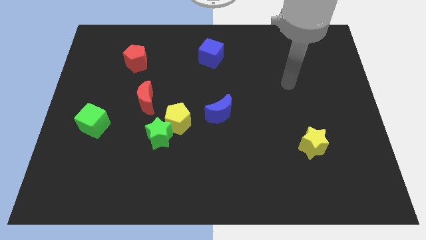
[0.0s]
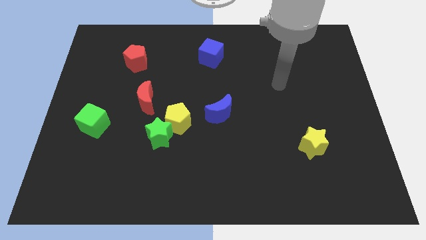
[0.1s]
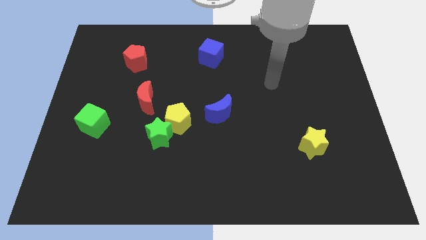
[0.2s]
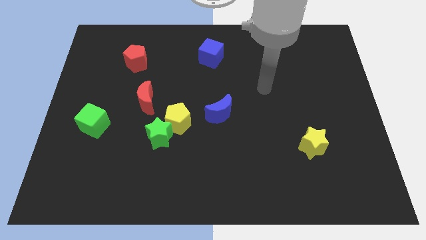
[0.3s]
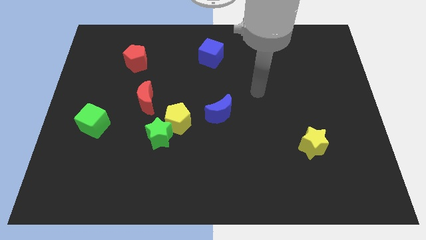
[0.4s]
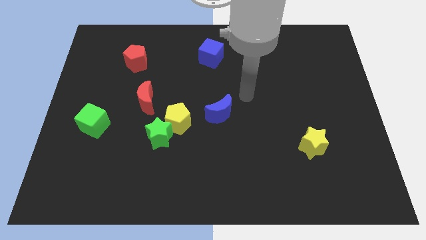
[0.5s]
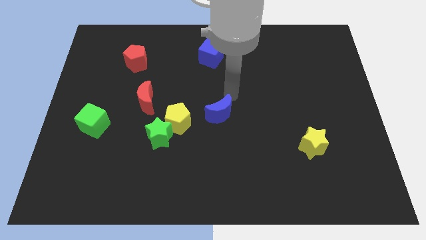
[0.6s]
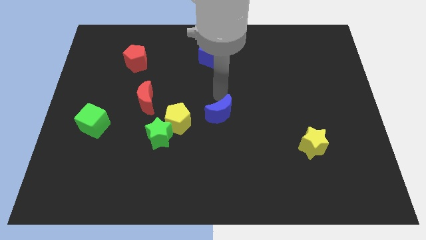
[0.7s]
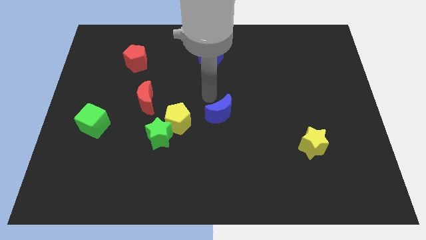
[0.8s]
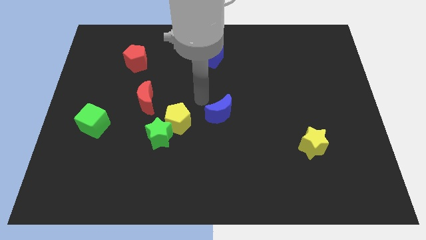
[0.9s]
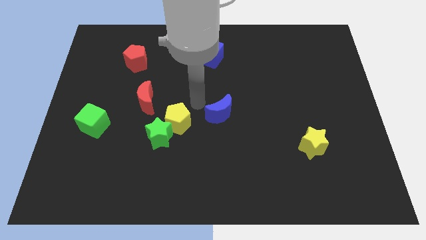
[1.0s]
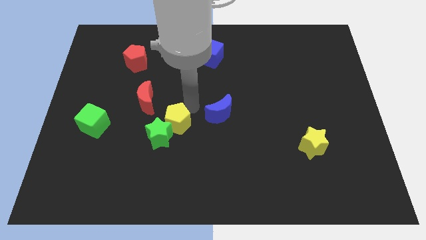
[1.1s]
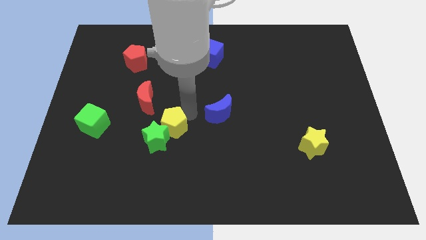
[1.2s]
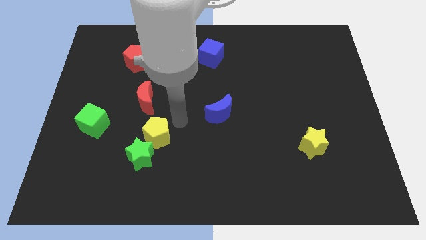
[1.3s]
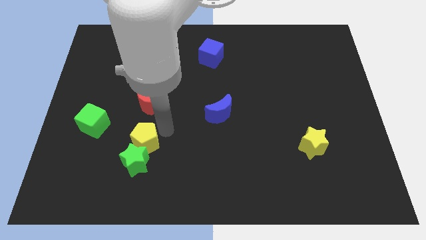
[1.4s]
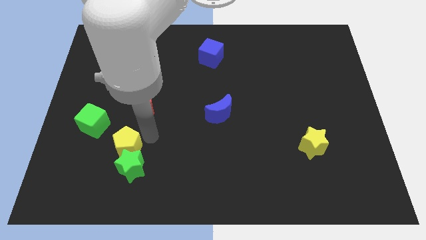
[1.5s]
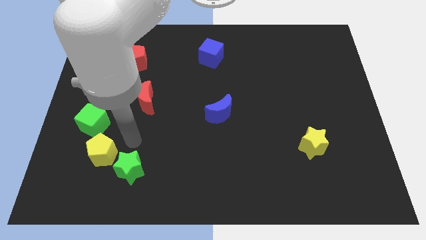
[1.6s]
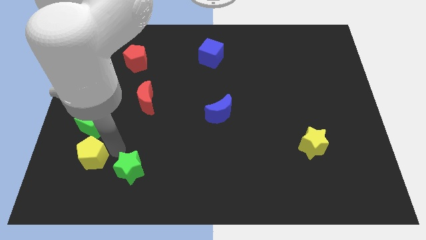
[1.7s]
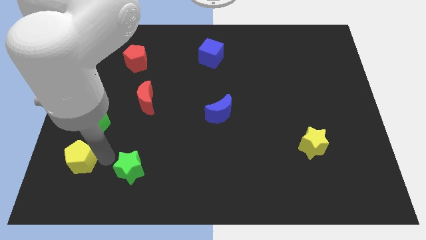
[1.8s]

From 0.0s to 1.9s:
move the green star away from the yellow pentagon

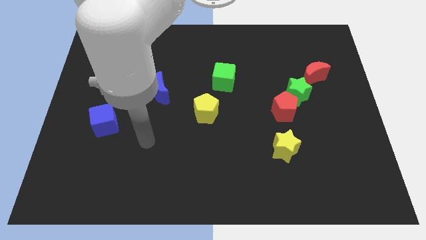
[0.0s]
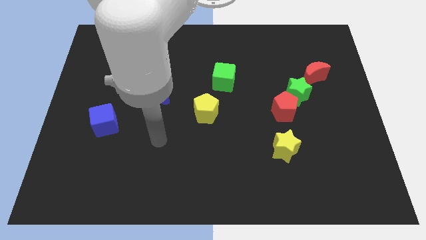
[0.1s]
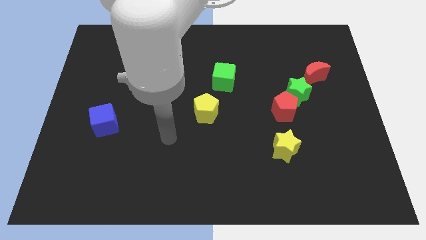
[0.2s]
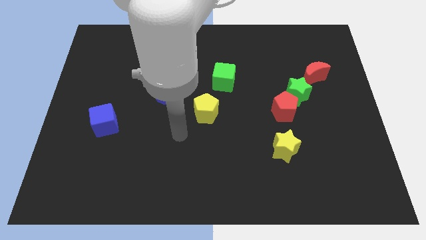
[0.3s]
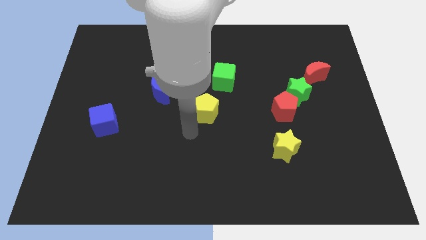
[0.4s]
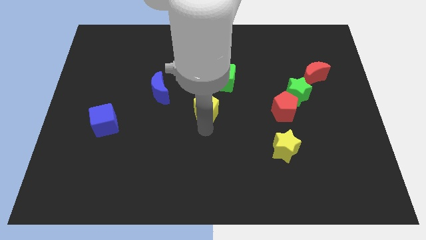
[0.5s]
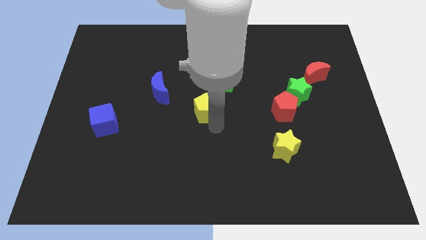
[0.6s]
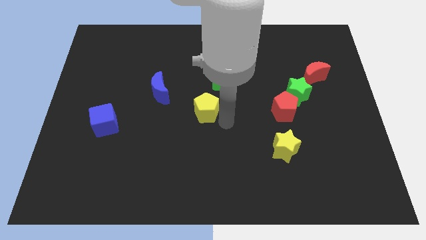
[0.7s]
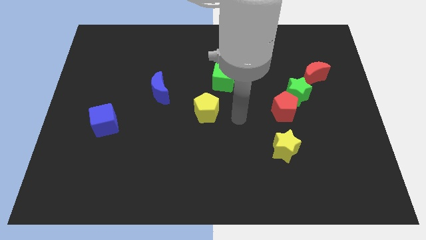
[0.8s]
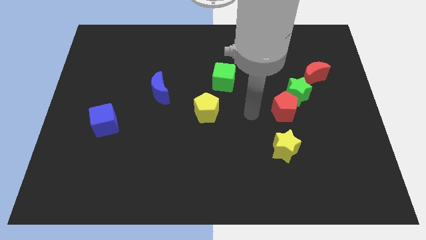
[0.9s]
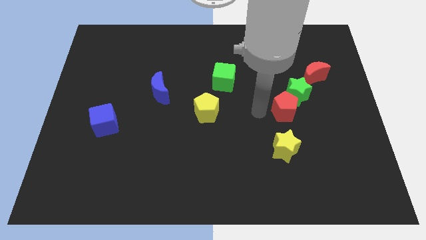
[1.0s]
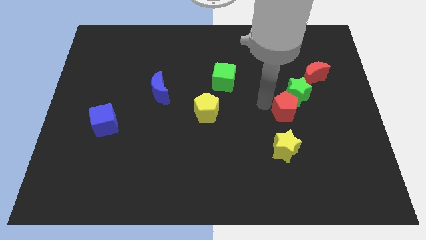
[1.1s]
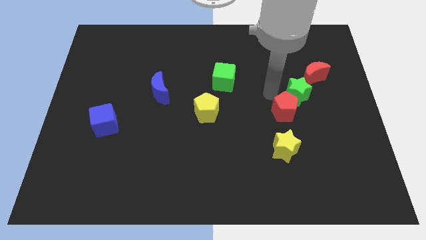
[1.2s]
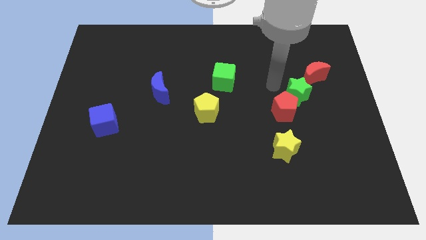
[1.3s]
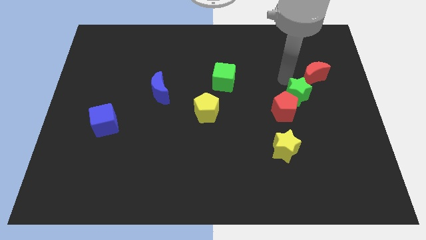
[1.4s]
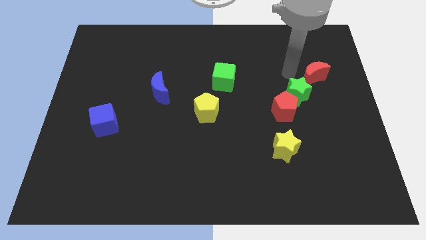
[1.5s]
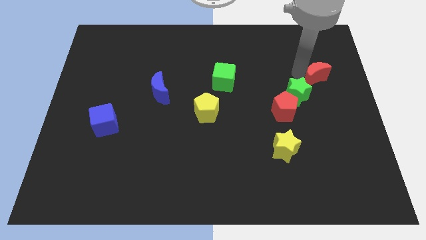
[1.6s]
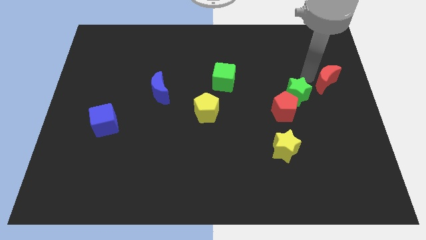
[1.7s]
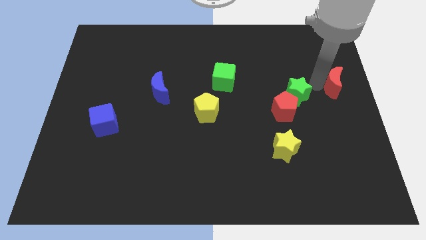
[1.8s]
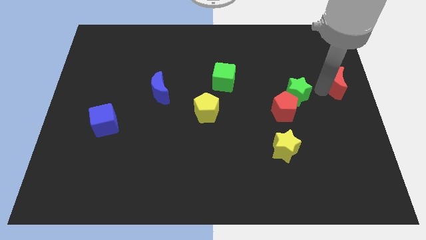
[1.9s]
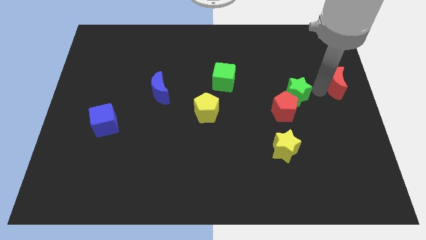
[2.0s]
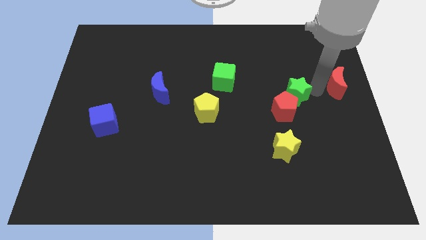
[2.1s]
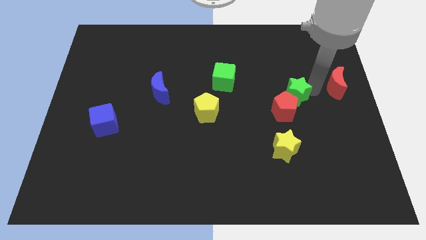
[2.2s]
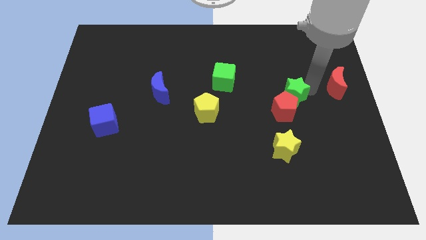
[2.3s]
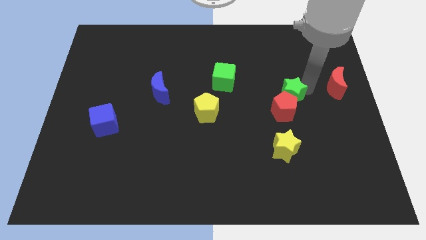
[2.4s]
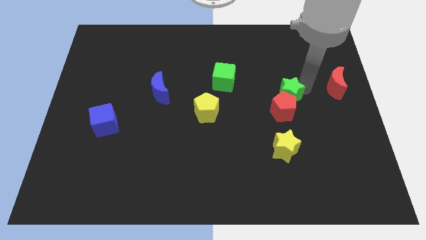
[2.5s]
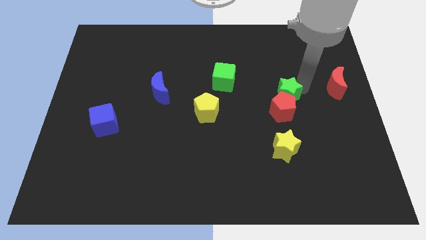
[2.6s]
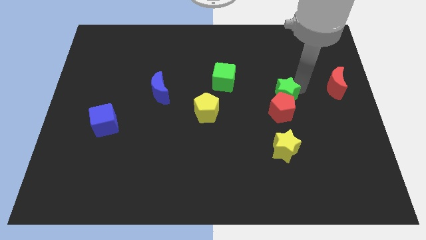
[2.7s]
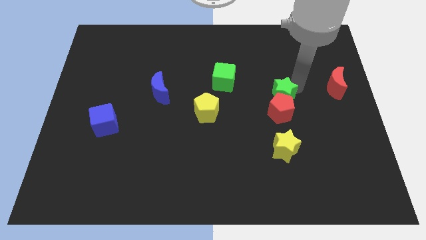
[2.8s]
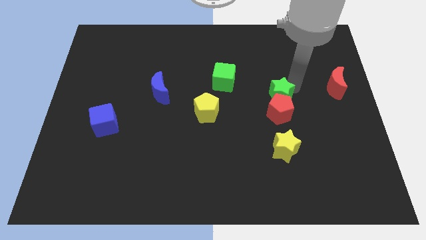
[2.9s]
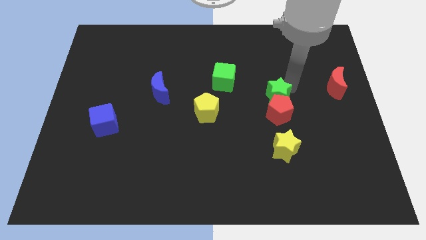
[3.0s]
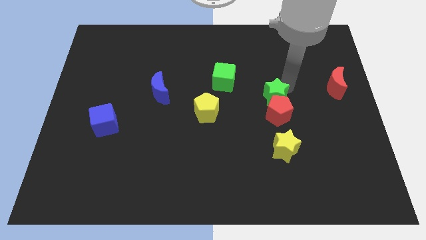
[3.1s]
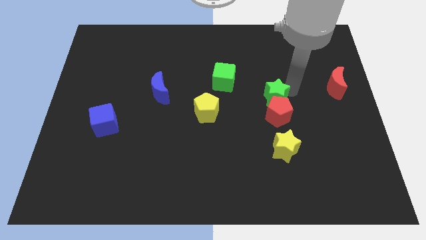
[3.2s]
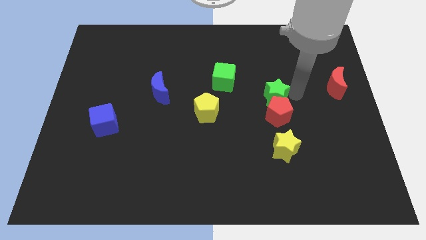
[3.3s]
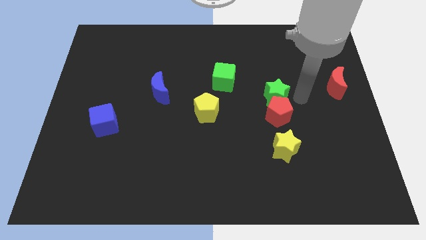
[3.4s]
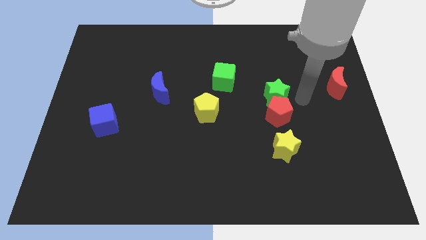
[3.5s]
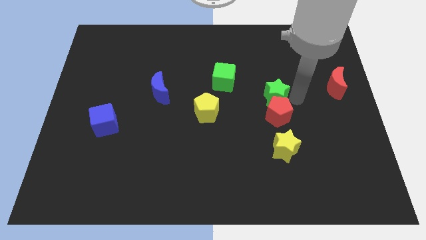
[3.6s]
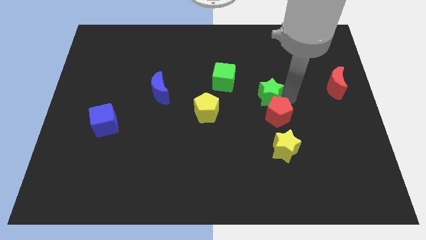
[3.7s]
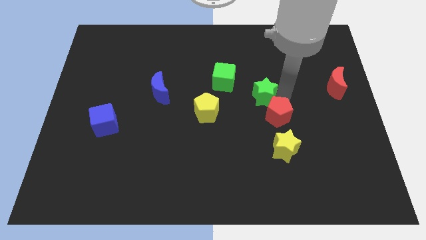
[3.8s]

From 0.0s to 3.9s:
move the green star away from the red pentagon and red moon

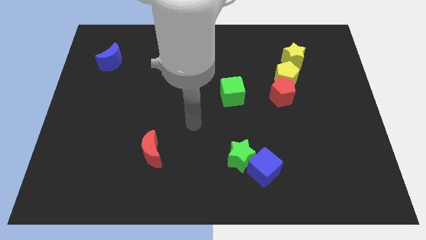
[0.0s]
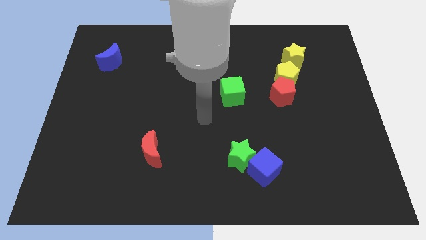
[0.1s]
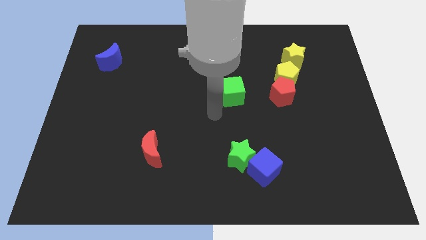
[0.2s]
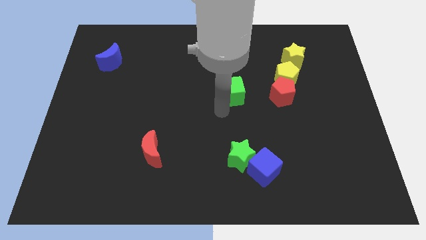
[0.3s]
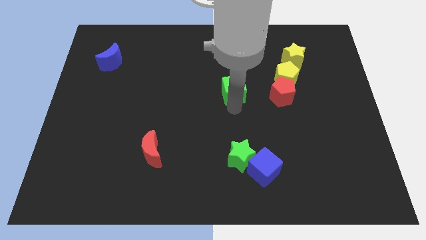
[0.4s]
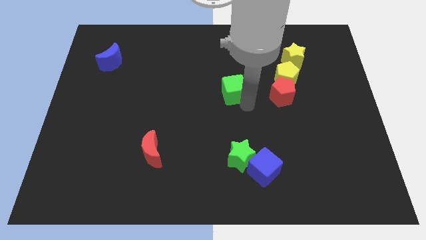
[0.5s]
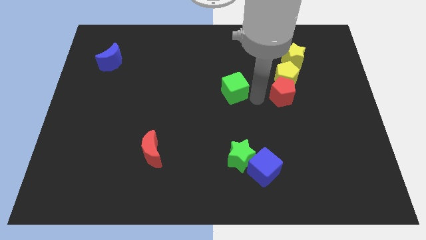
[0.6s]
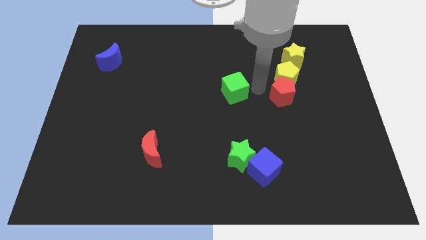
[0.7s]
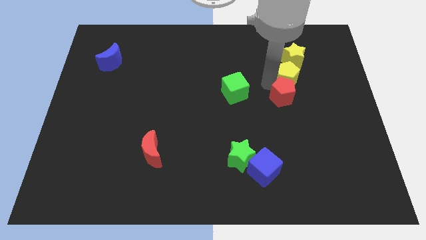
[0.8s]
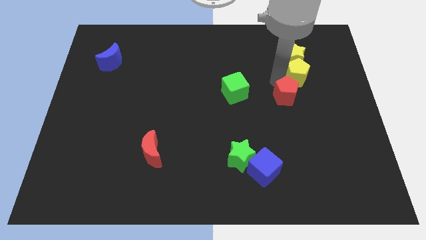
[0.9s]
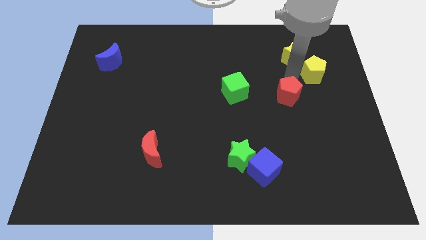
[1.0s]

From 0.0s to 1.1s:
pull the red pentagon apart from the yellow pentagon

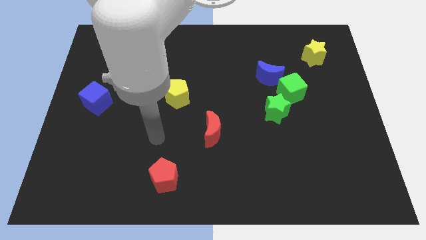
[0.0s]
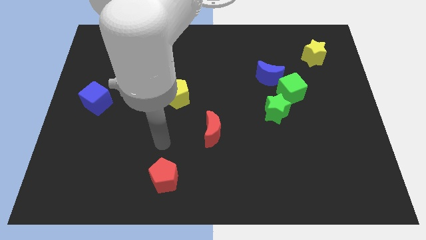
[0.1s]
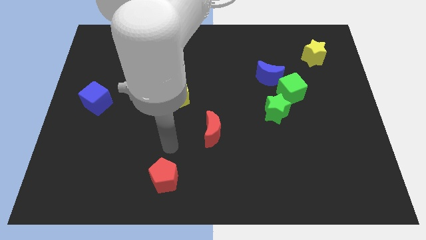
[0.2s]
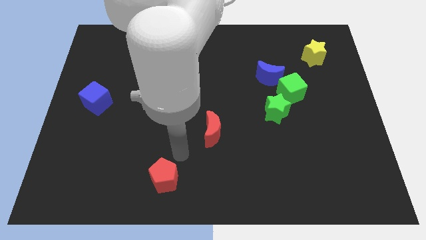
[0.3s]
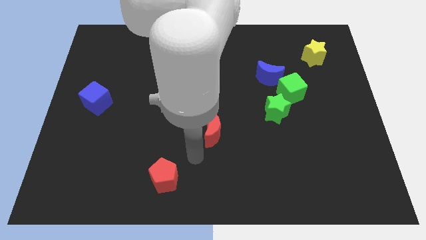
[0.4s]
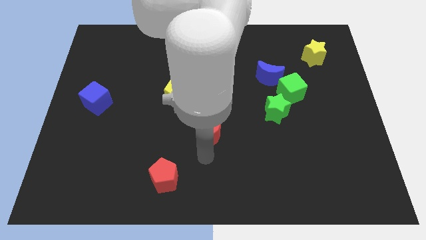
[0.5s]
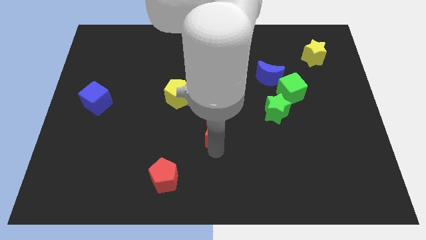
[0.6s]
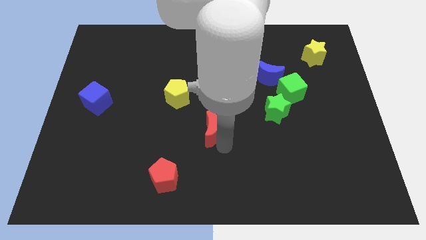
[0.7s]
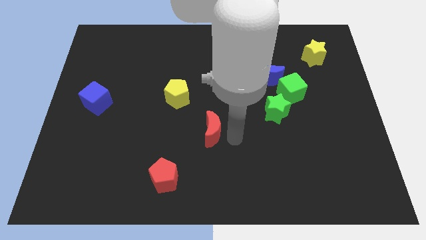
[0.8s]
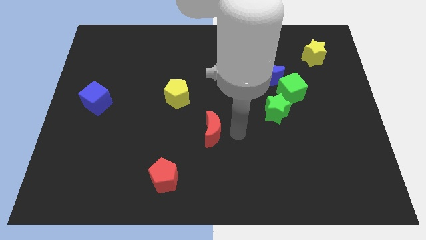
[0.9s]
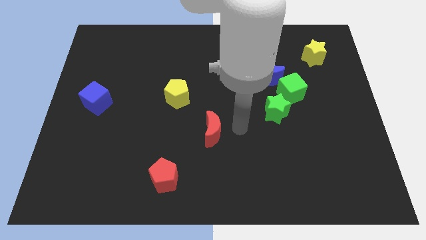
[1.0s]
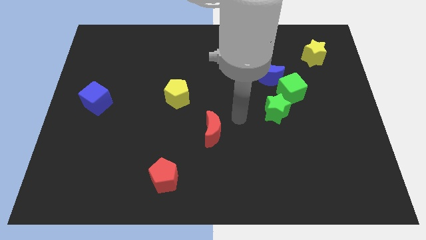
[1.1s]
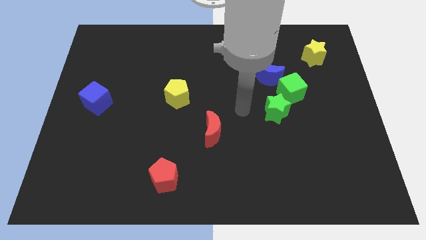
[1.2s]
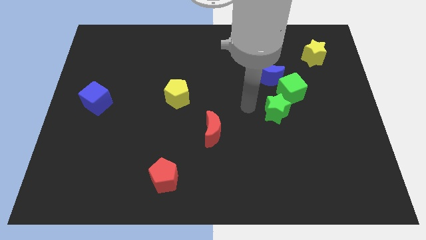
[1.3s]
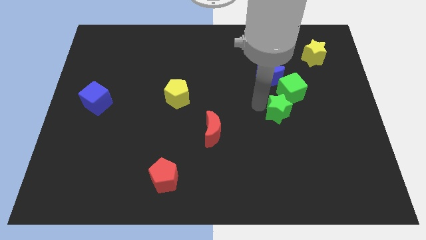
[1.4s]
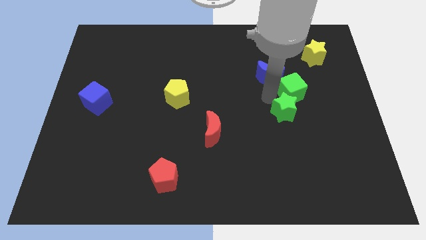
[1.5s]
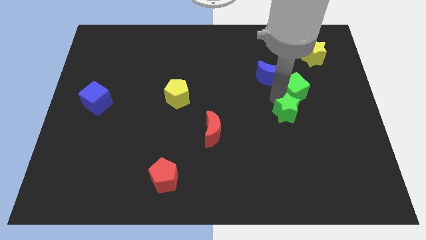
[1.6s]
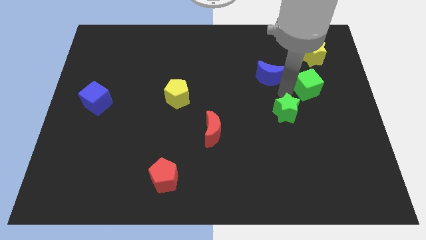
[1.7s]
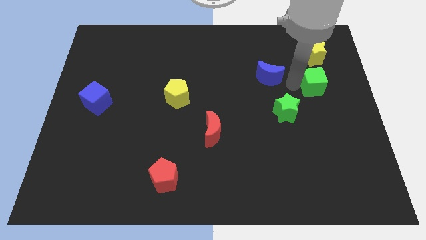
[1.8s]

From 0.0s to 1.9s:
separate the blue moon from the green cube

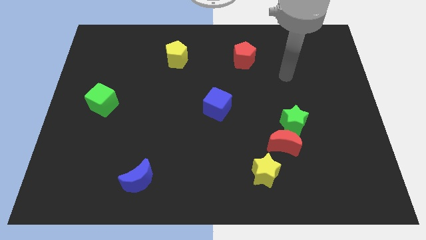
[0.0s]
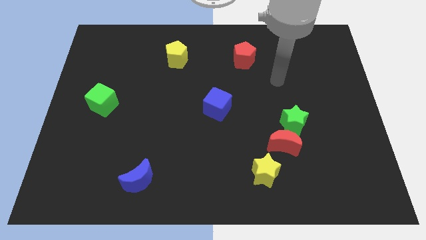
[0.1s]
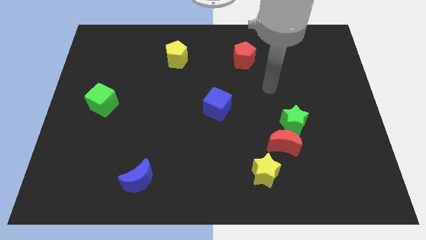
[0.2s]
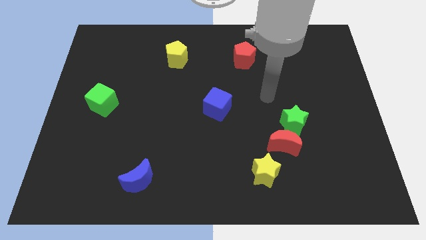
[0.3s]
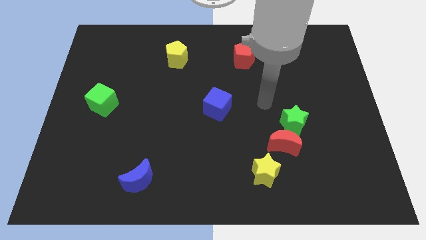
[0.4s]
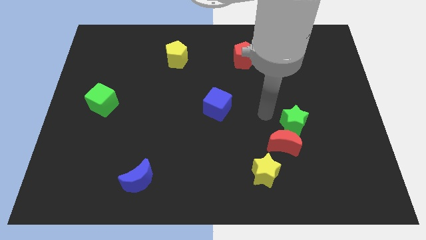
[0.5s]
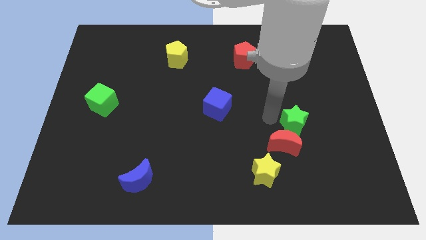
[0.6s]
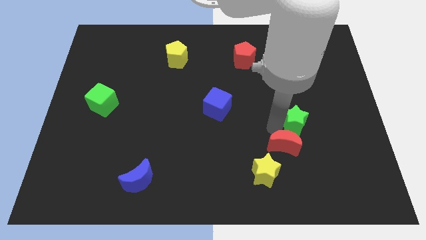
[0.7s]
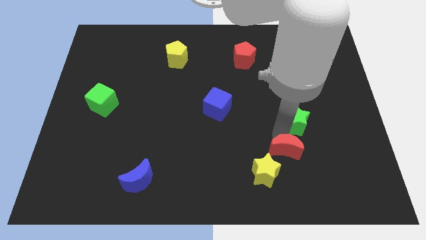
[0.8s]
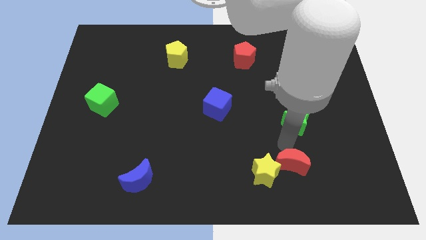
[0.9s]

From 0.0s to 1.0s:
pull the green star apart from the red moon
